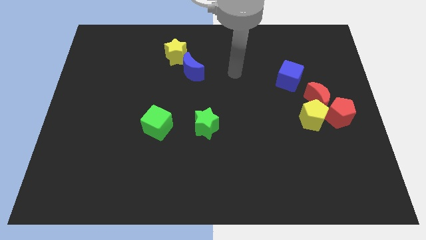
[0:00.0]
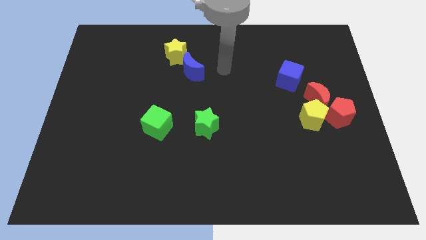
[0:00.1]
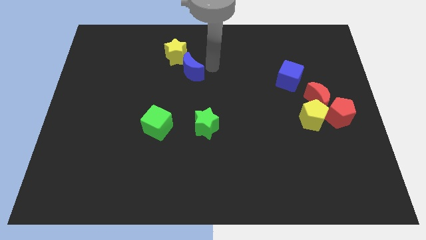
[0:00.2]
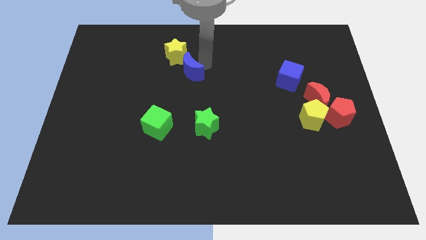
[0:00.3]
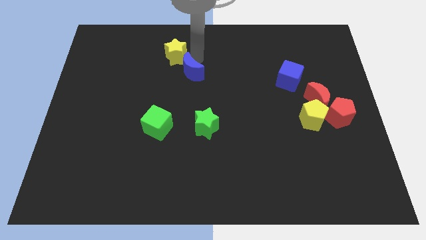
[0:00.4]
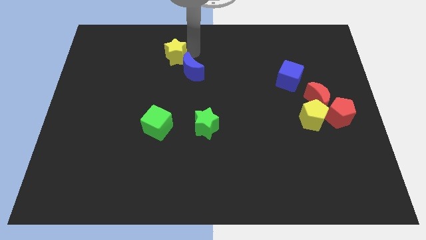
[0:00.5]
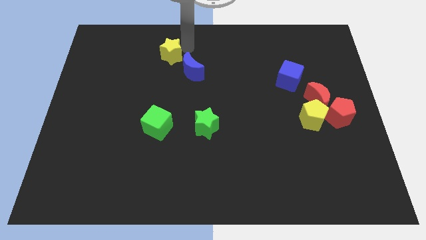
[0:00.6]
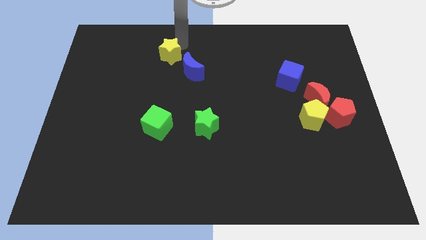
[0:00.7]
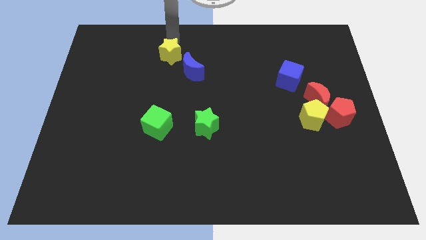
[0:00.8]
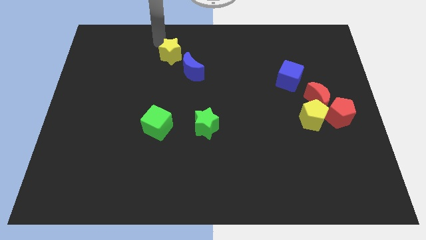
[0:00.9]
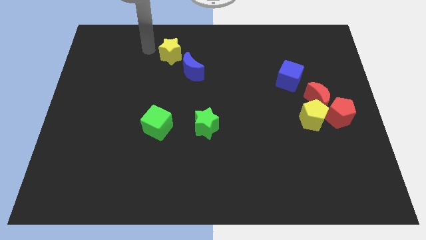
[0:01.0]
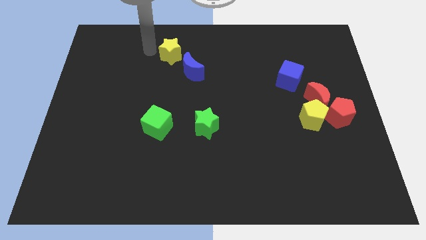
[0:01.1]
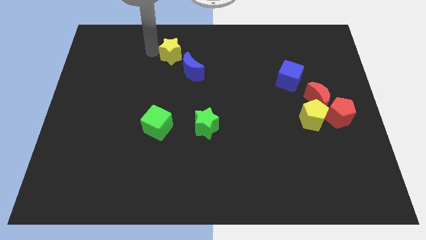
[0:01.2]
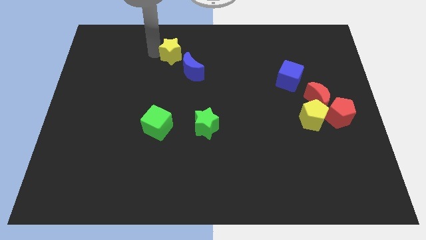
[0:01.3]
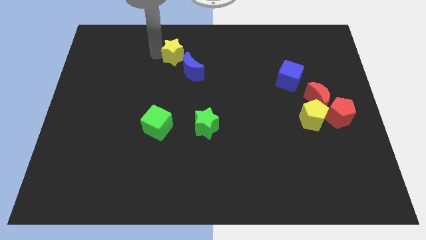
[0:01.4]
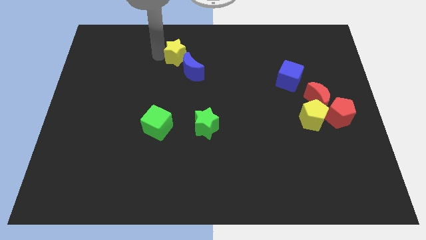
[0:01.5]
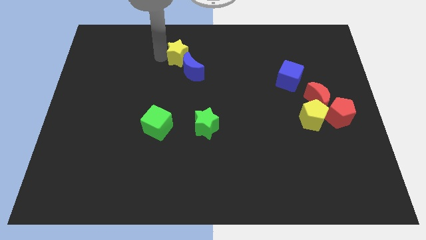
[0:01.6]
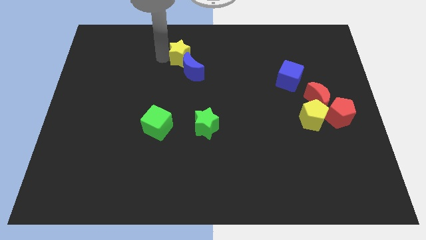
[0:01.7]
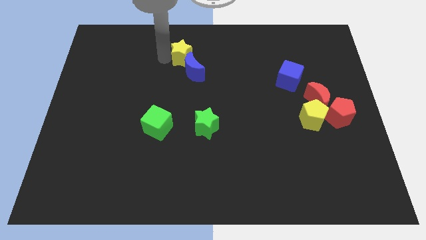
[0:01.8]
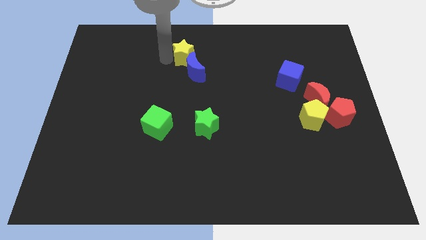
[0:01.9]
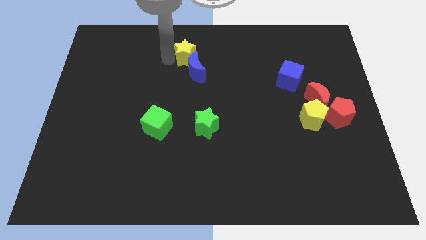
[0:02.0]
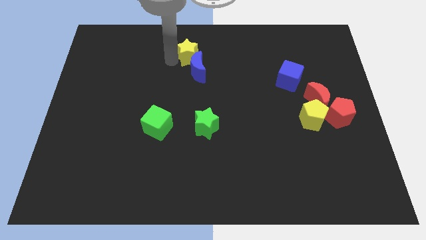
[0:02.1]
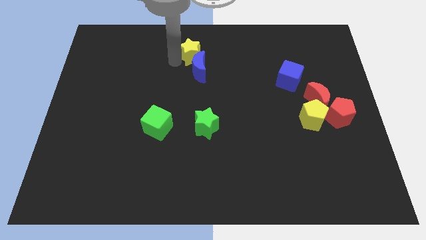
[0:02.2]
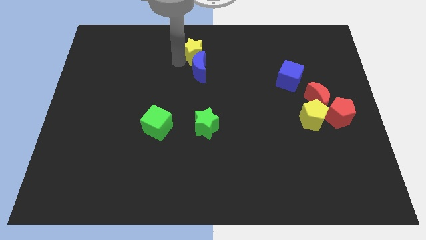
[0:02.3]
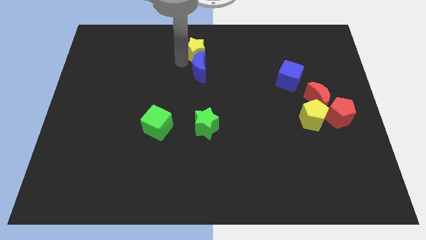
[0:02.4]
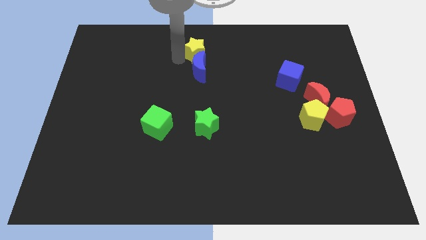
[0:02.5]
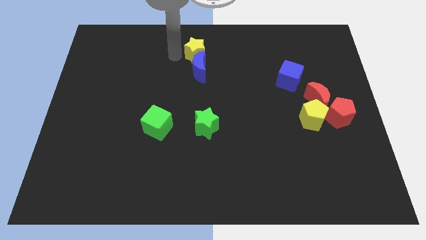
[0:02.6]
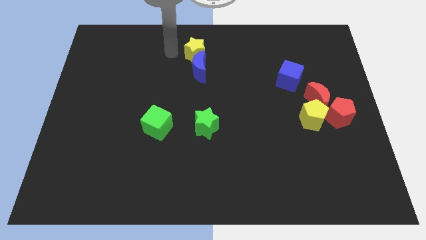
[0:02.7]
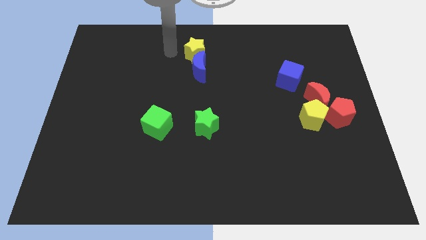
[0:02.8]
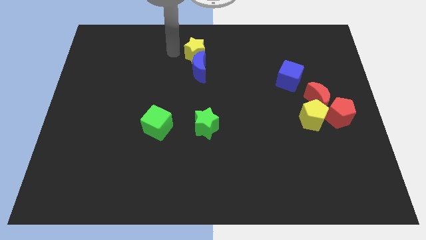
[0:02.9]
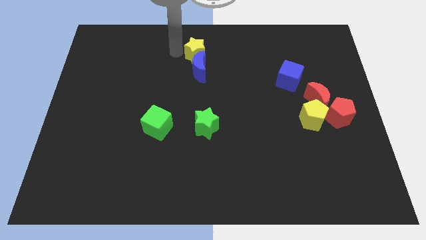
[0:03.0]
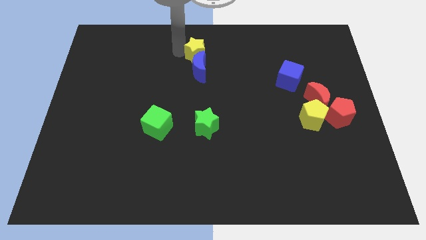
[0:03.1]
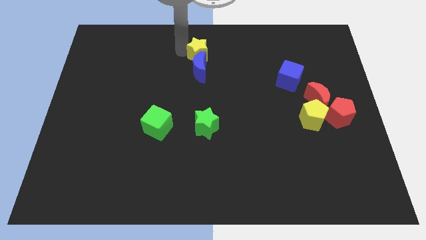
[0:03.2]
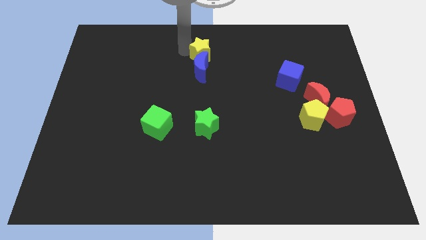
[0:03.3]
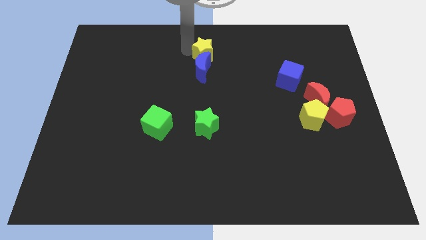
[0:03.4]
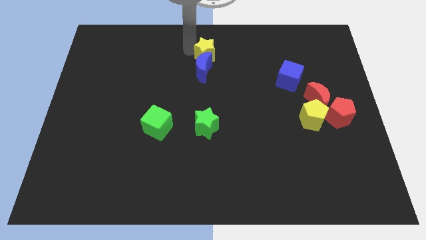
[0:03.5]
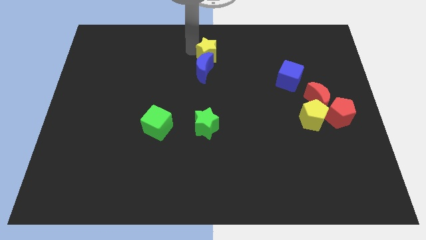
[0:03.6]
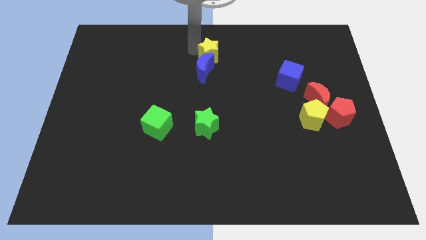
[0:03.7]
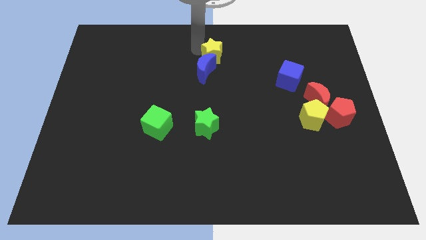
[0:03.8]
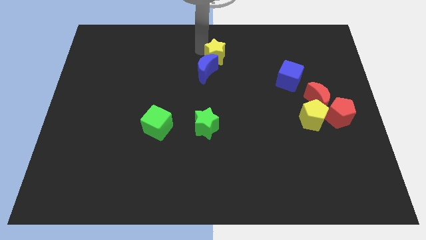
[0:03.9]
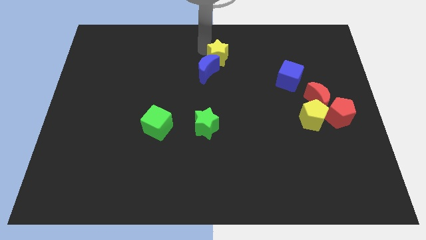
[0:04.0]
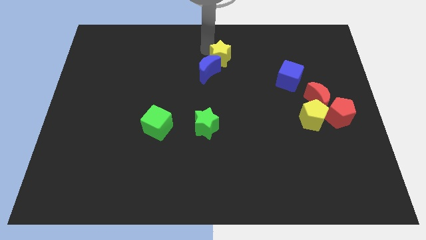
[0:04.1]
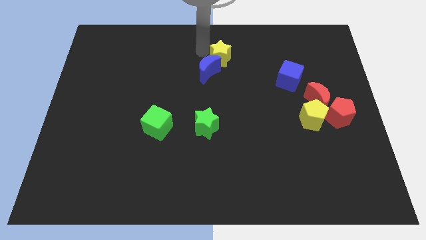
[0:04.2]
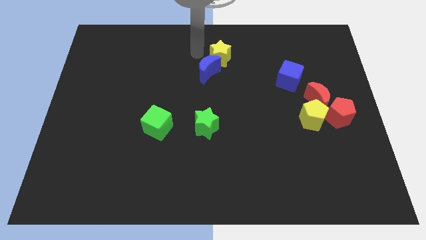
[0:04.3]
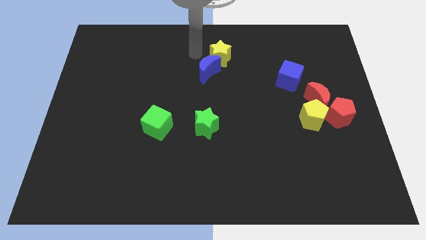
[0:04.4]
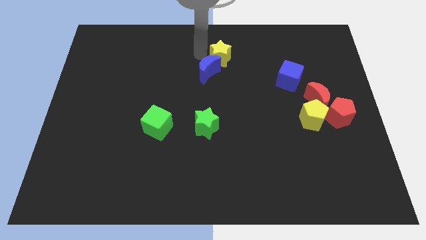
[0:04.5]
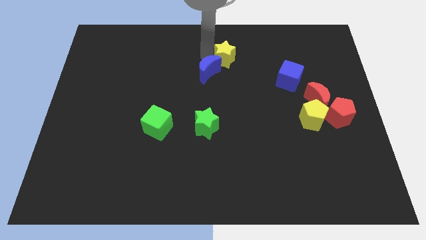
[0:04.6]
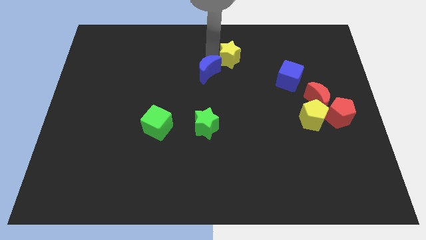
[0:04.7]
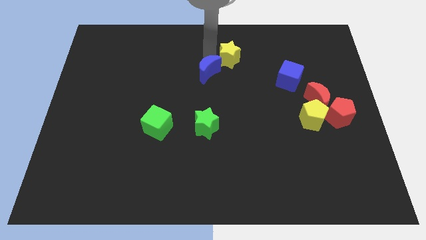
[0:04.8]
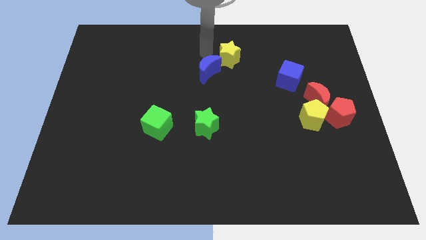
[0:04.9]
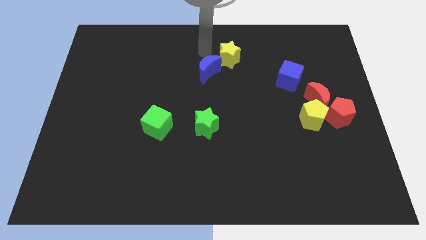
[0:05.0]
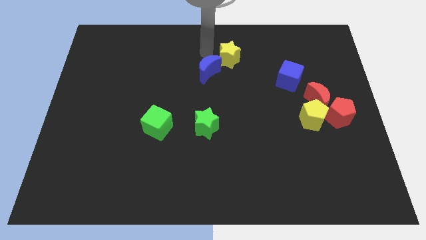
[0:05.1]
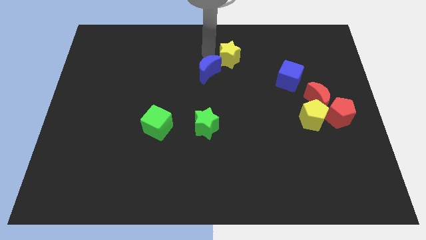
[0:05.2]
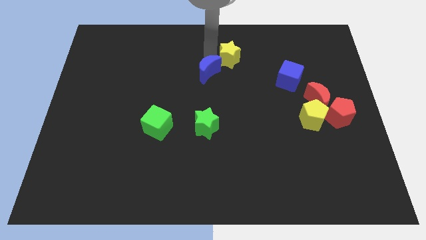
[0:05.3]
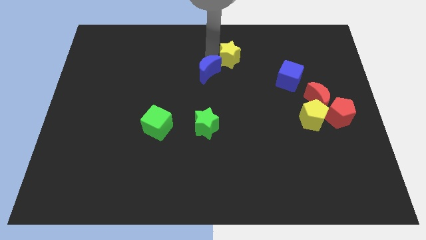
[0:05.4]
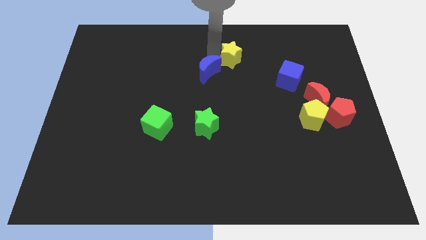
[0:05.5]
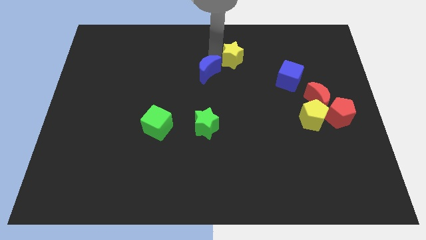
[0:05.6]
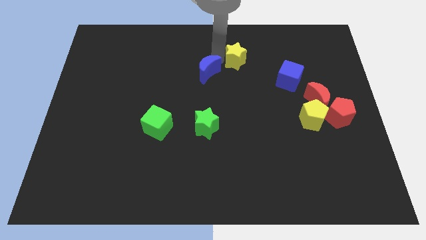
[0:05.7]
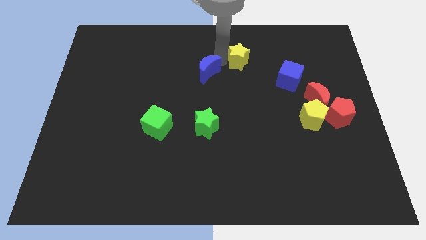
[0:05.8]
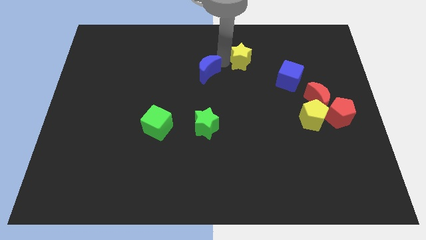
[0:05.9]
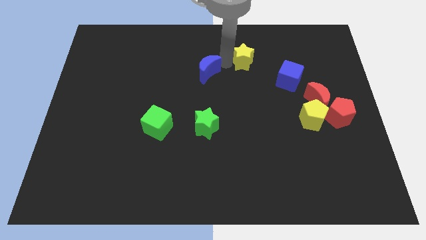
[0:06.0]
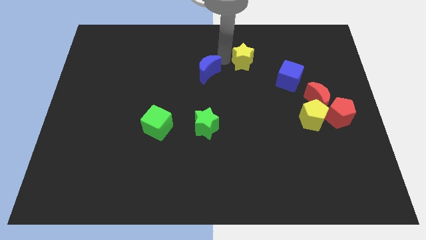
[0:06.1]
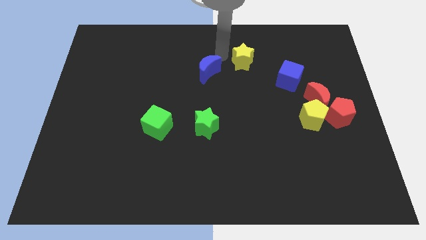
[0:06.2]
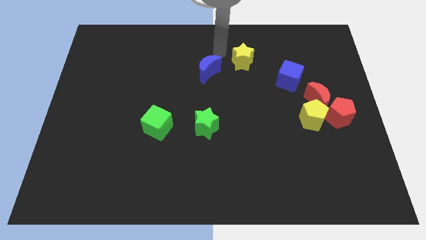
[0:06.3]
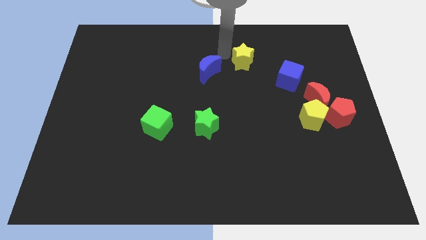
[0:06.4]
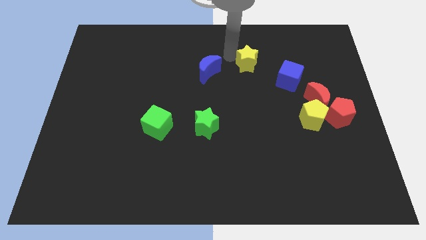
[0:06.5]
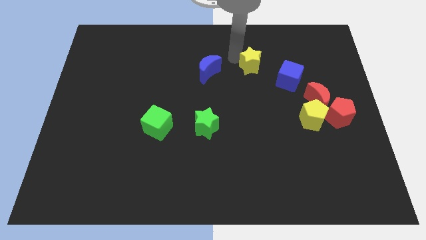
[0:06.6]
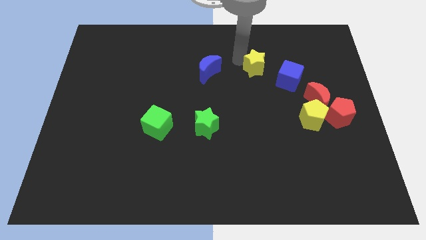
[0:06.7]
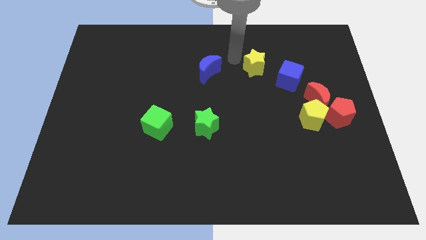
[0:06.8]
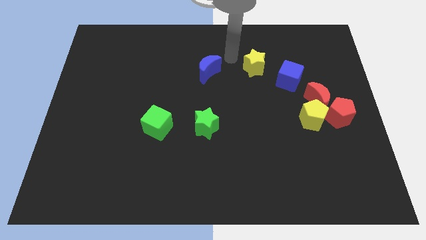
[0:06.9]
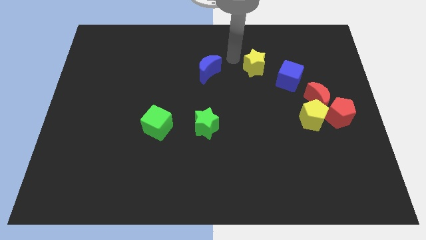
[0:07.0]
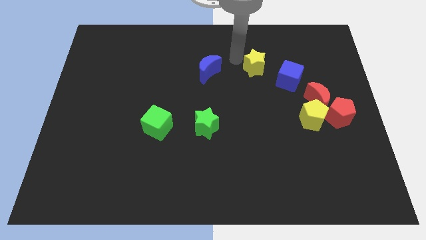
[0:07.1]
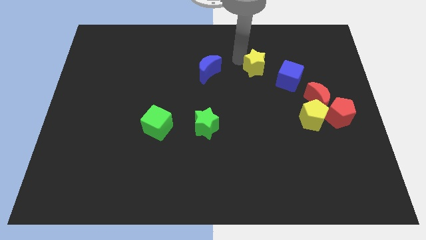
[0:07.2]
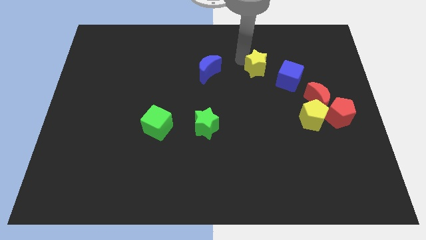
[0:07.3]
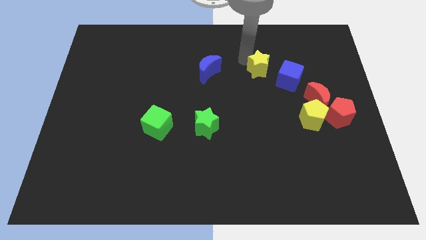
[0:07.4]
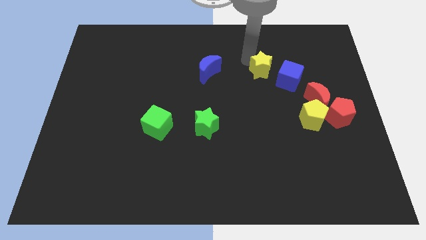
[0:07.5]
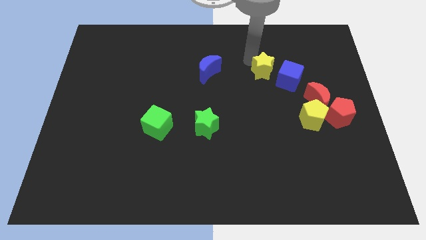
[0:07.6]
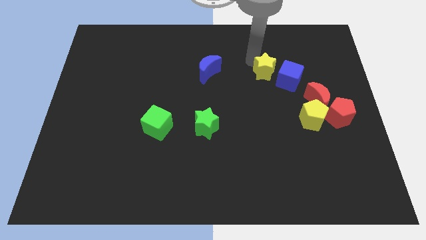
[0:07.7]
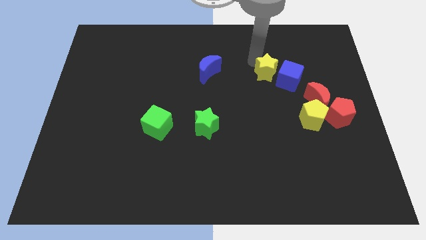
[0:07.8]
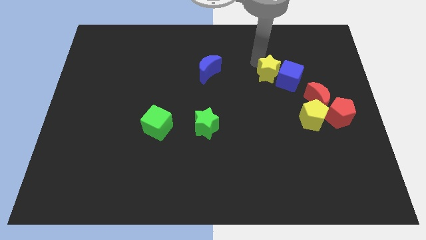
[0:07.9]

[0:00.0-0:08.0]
move the yellow star close to the blue cube

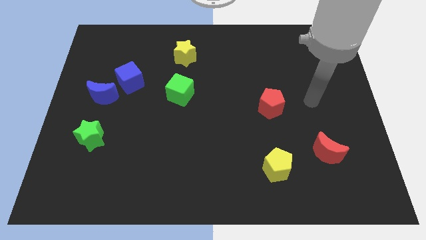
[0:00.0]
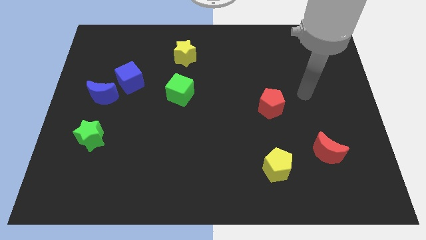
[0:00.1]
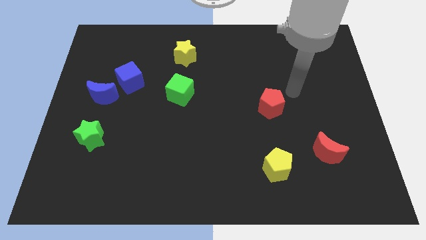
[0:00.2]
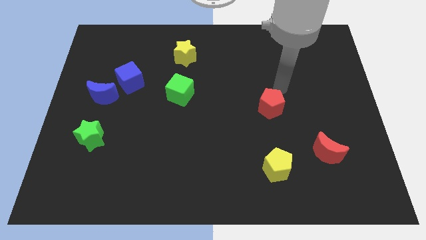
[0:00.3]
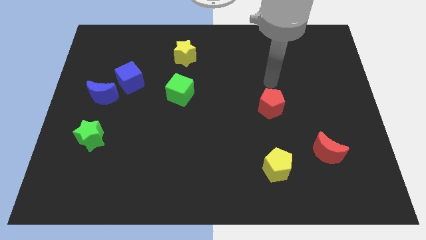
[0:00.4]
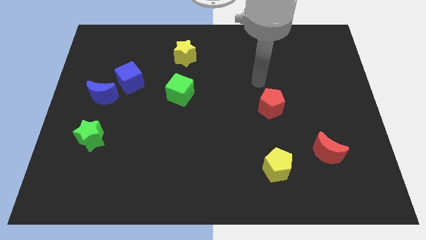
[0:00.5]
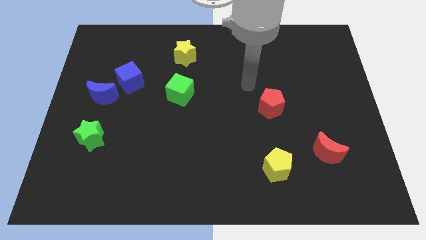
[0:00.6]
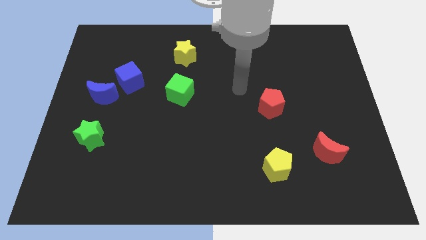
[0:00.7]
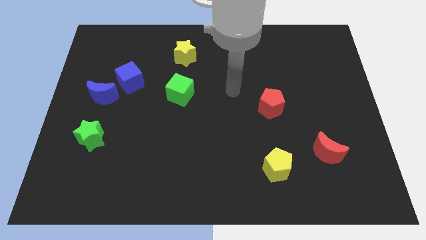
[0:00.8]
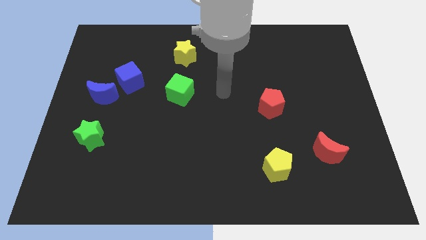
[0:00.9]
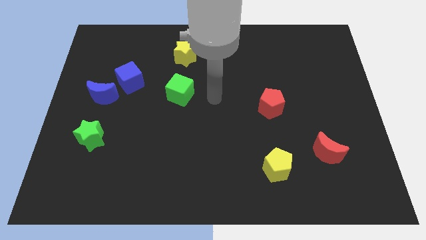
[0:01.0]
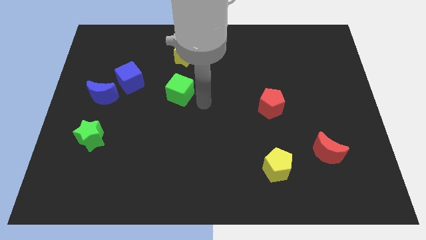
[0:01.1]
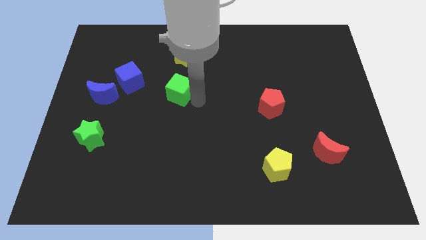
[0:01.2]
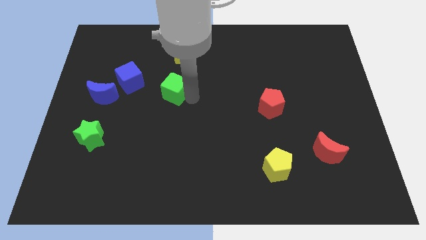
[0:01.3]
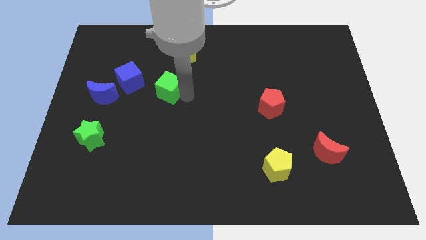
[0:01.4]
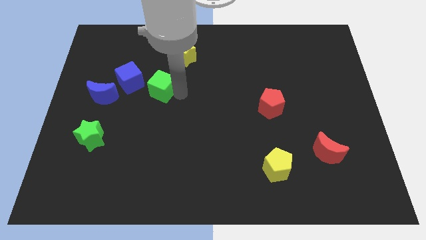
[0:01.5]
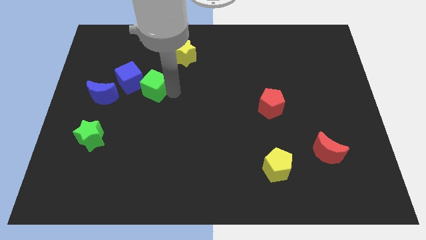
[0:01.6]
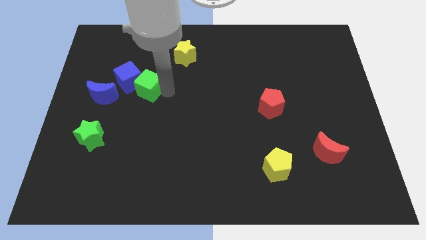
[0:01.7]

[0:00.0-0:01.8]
put the green cube to the blue cube
